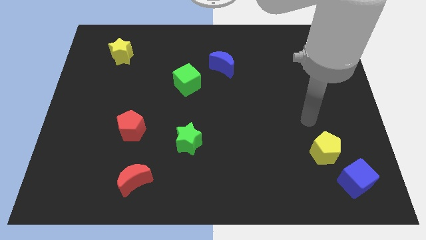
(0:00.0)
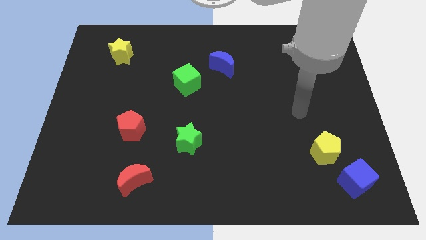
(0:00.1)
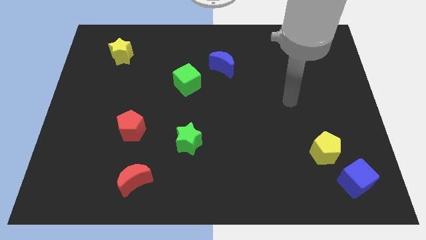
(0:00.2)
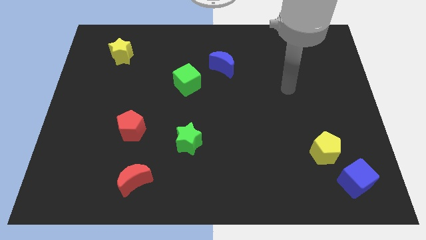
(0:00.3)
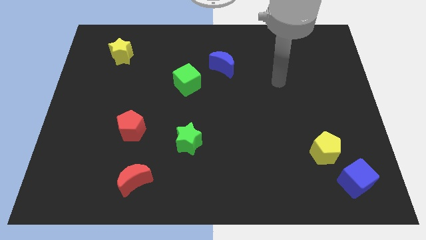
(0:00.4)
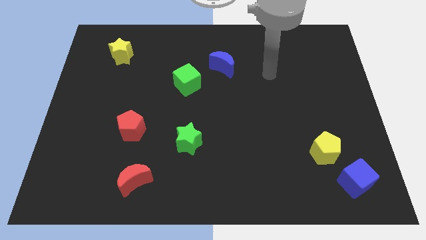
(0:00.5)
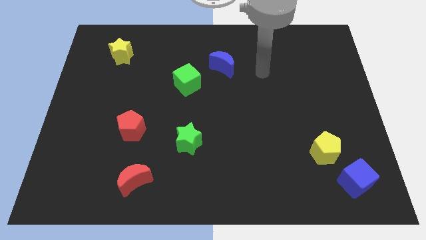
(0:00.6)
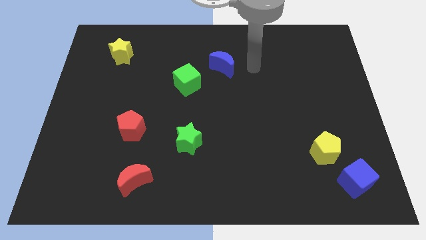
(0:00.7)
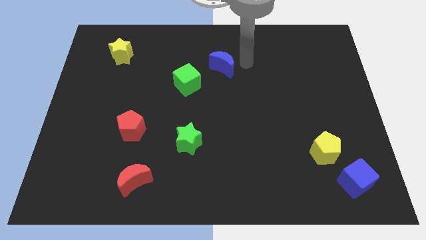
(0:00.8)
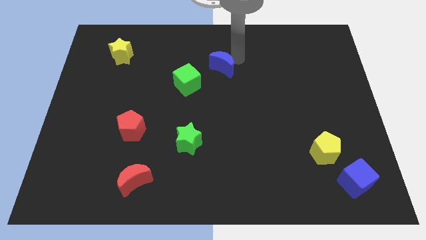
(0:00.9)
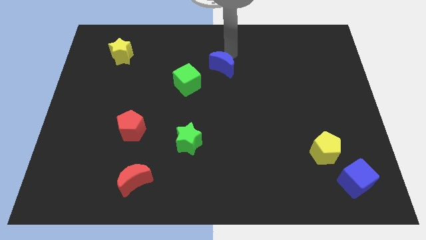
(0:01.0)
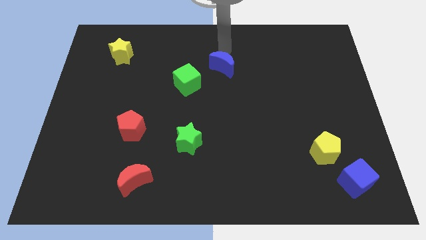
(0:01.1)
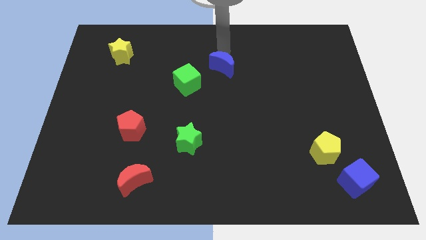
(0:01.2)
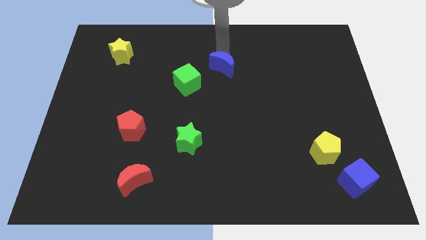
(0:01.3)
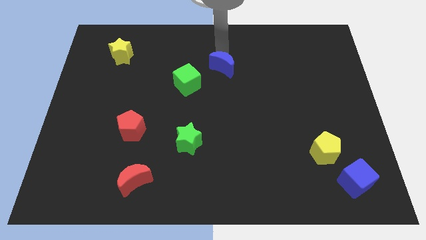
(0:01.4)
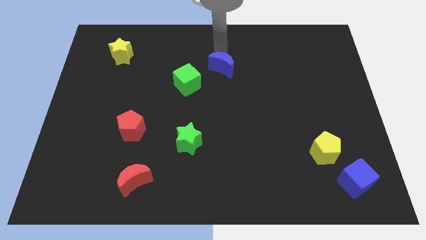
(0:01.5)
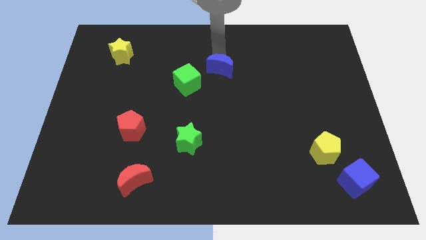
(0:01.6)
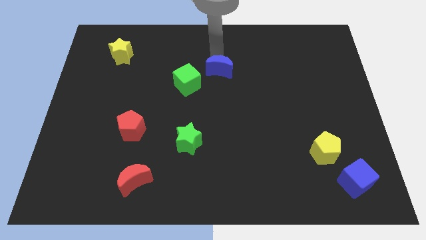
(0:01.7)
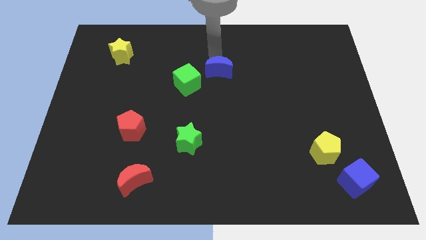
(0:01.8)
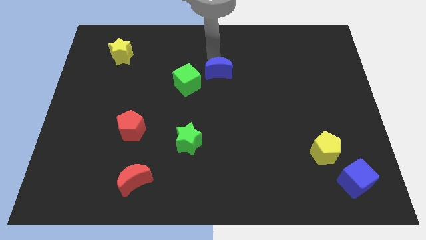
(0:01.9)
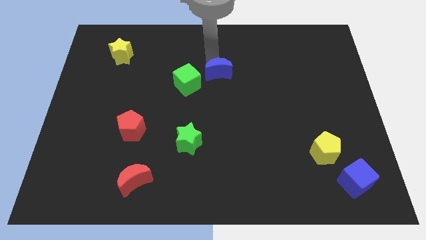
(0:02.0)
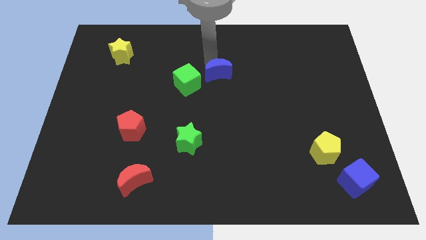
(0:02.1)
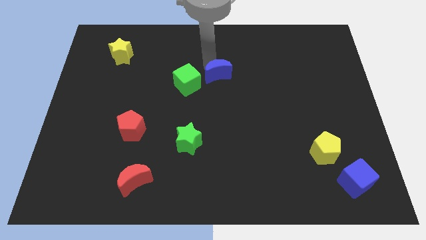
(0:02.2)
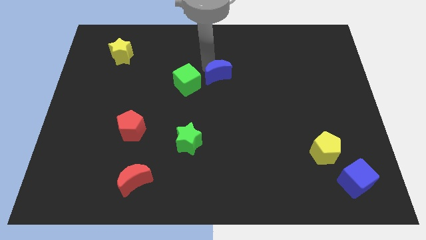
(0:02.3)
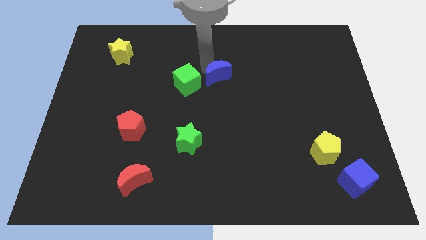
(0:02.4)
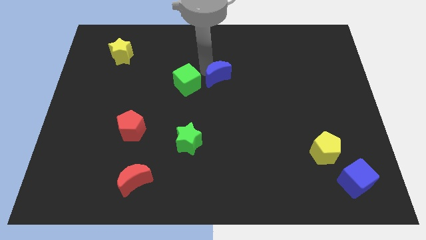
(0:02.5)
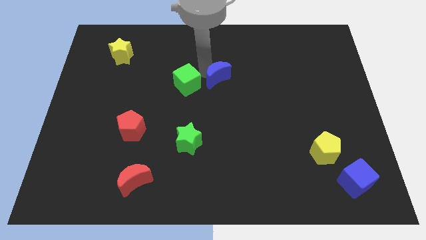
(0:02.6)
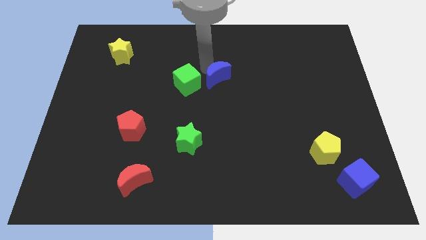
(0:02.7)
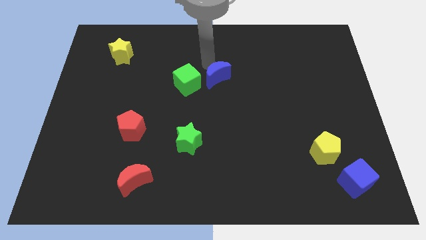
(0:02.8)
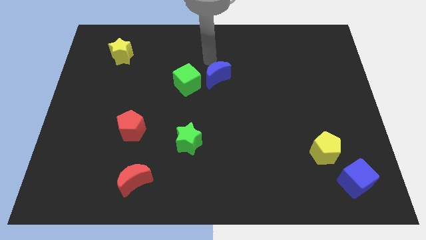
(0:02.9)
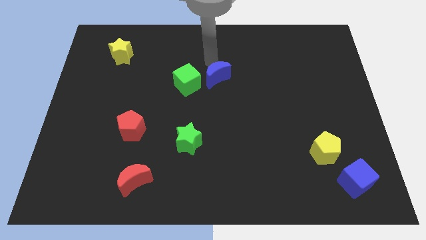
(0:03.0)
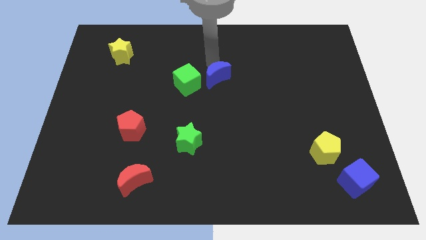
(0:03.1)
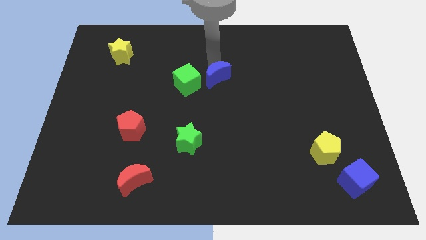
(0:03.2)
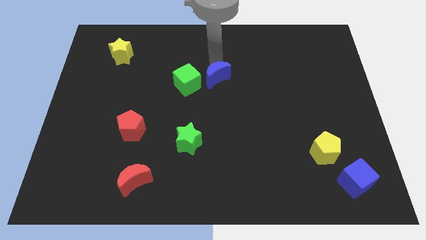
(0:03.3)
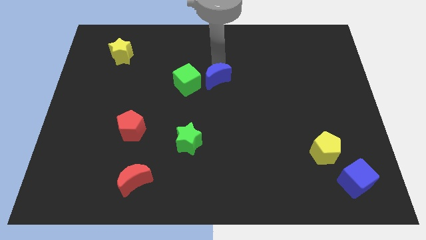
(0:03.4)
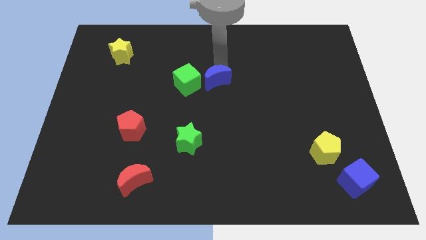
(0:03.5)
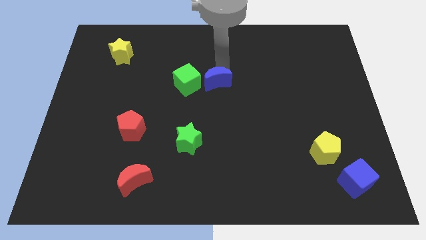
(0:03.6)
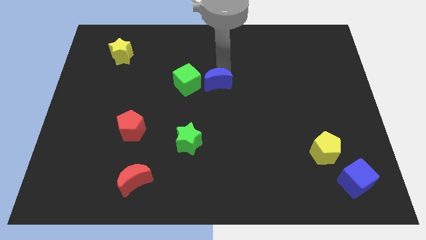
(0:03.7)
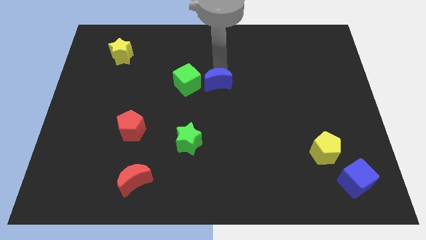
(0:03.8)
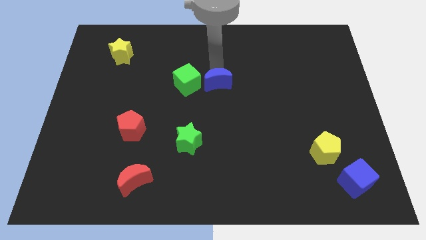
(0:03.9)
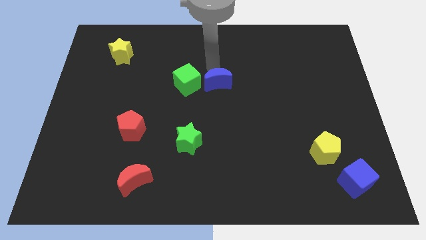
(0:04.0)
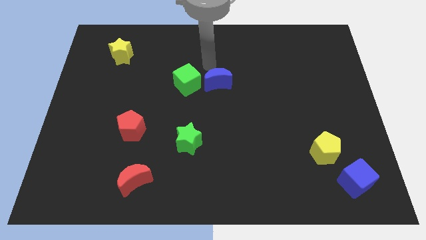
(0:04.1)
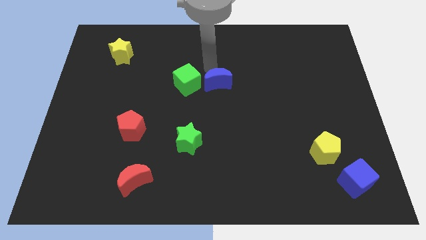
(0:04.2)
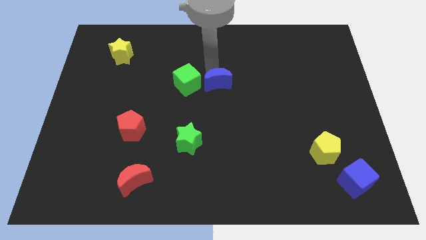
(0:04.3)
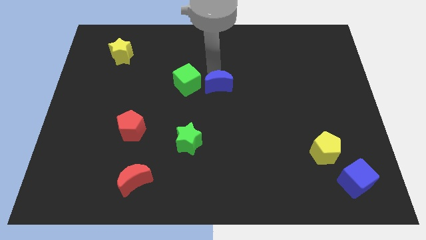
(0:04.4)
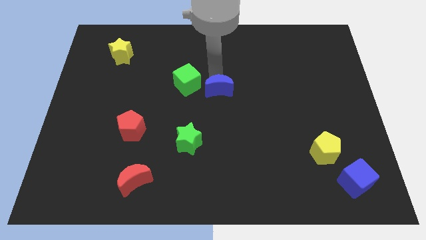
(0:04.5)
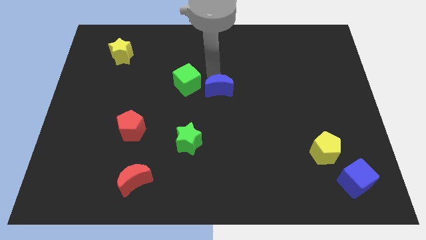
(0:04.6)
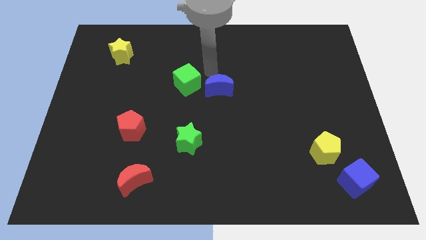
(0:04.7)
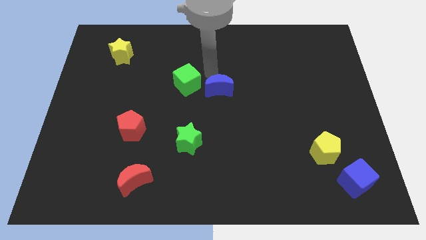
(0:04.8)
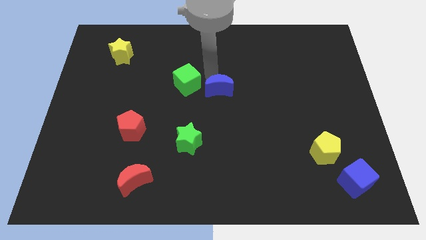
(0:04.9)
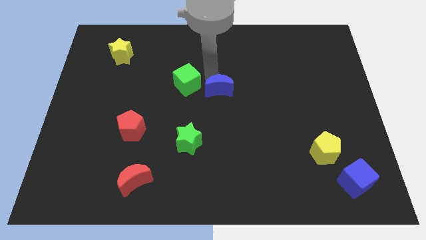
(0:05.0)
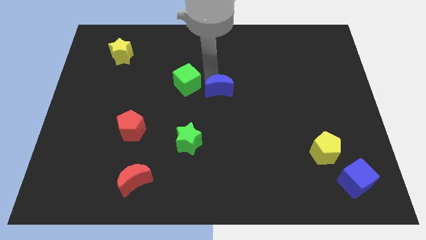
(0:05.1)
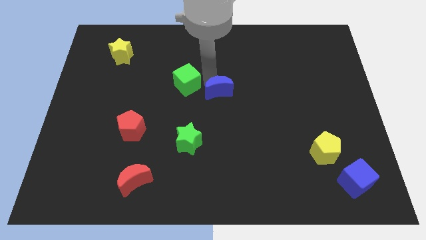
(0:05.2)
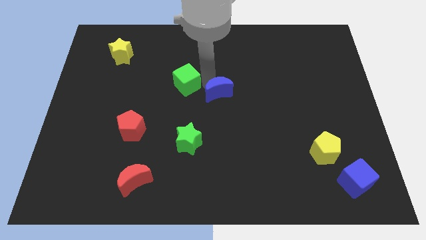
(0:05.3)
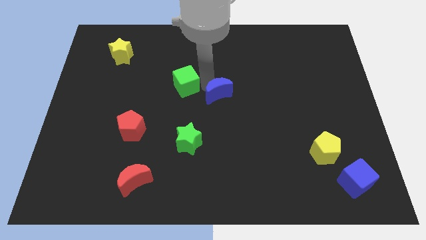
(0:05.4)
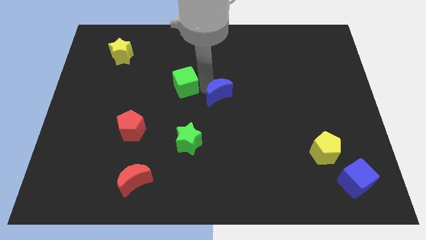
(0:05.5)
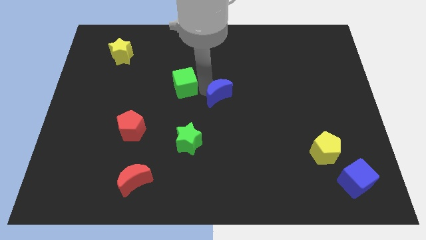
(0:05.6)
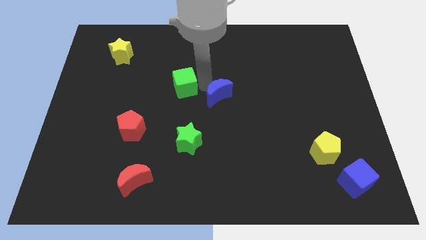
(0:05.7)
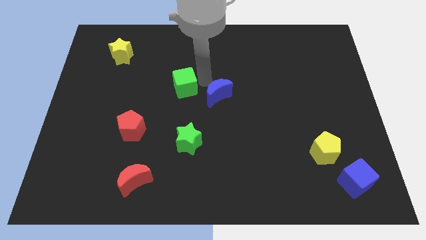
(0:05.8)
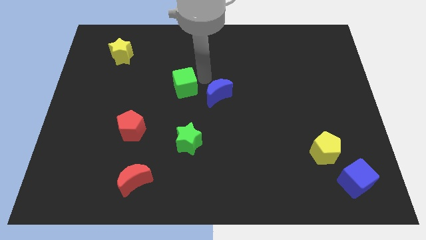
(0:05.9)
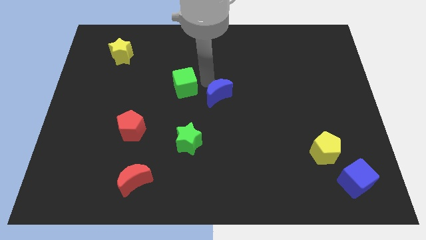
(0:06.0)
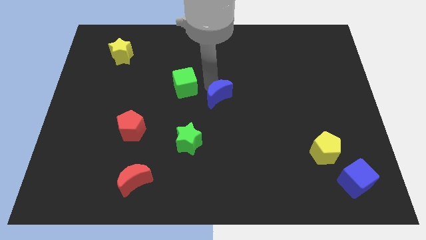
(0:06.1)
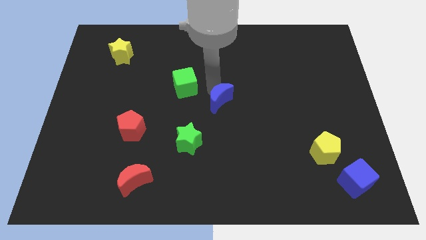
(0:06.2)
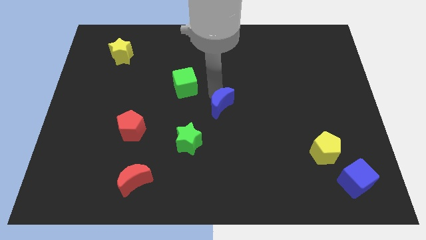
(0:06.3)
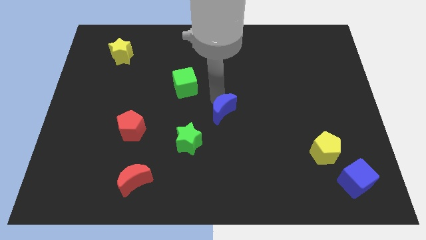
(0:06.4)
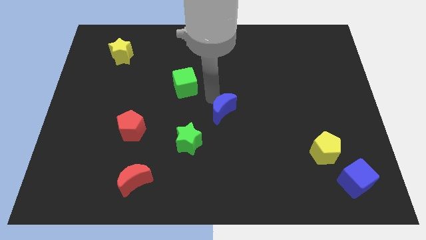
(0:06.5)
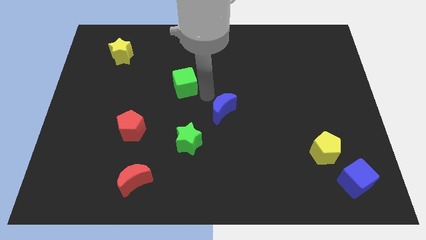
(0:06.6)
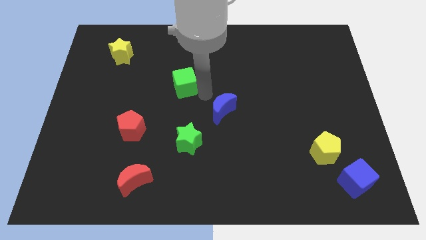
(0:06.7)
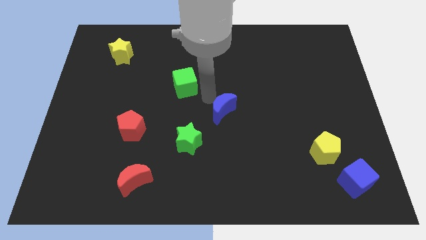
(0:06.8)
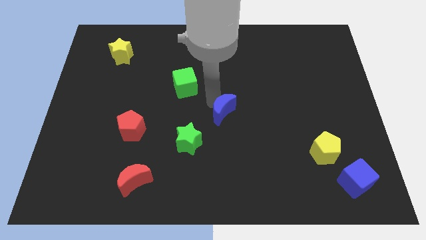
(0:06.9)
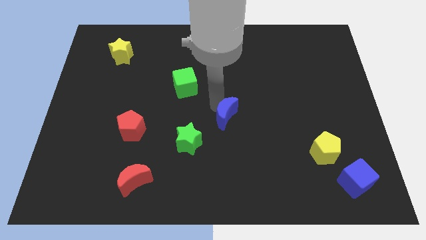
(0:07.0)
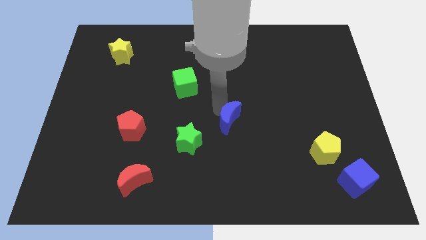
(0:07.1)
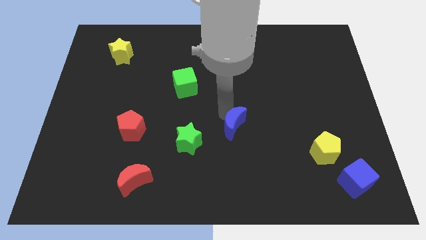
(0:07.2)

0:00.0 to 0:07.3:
move the blue moon just right of the green star

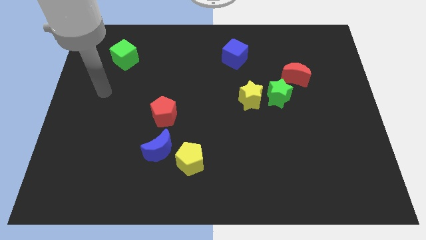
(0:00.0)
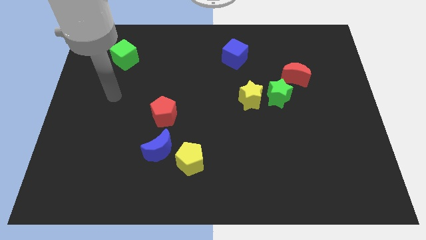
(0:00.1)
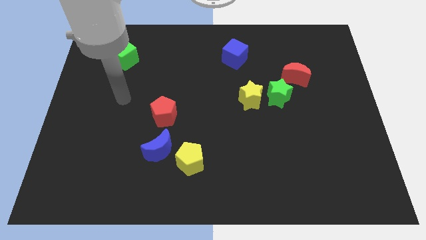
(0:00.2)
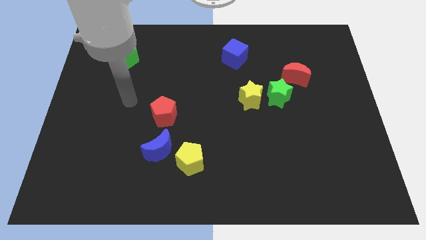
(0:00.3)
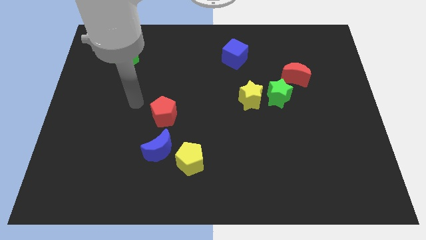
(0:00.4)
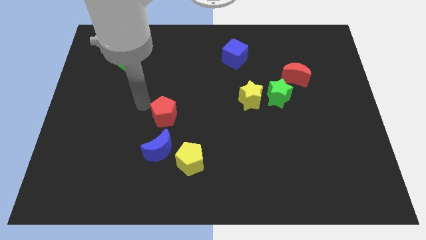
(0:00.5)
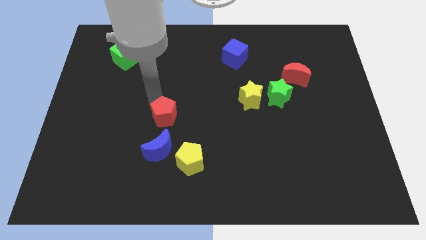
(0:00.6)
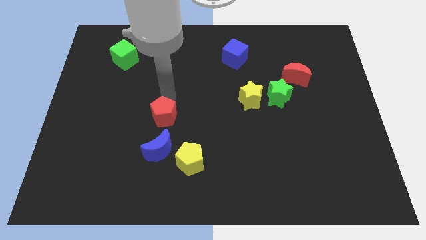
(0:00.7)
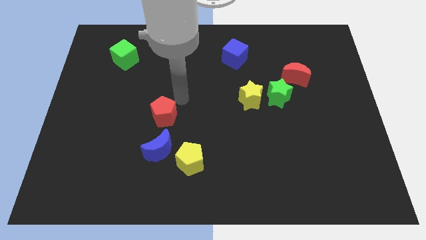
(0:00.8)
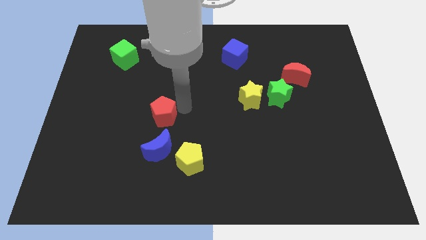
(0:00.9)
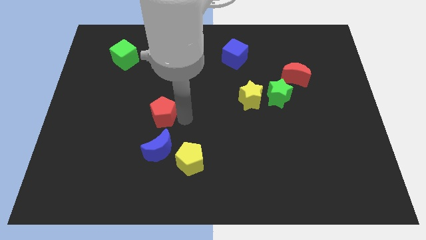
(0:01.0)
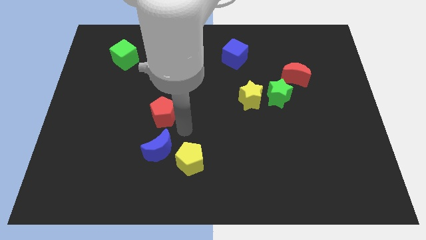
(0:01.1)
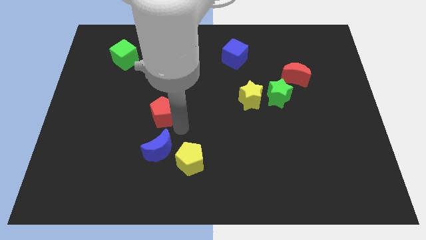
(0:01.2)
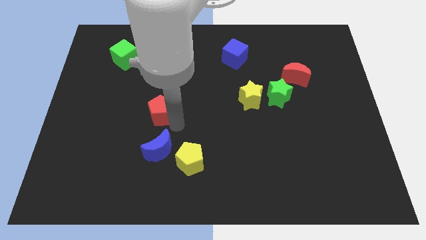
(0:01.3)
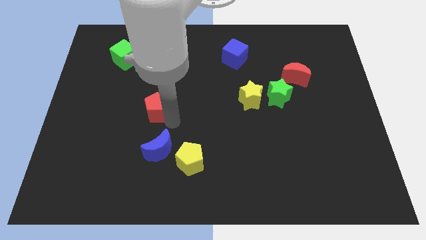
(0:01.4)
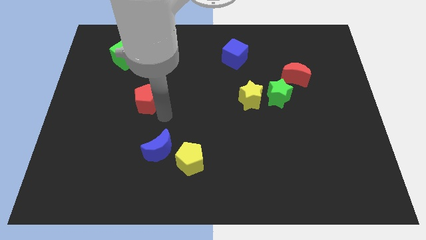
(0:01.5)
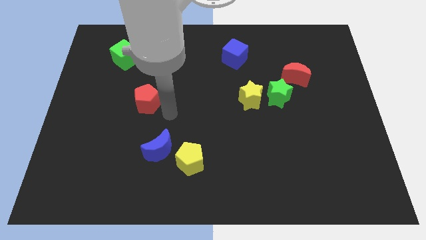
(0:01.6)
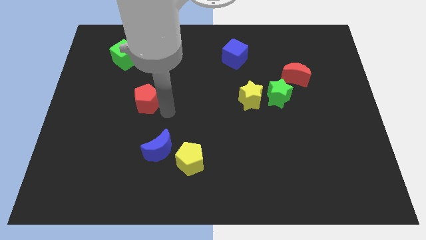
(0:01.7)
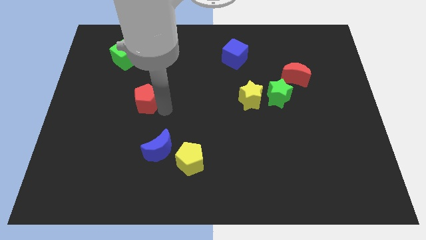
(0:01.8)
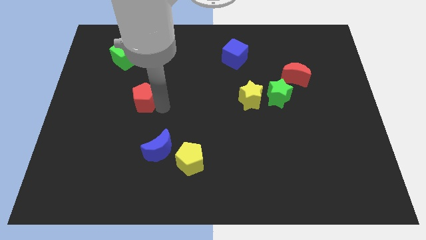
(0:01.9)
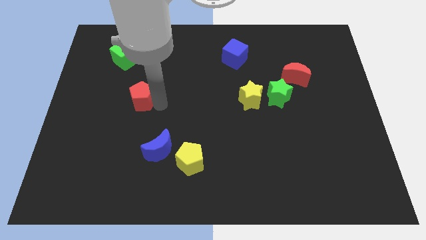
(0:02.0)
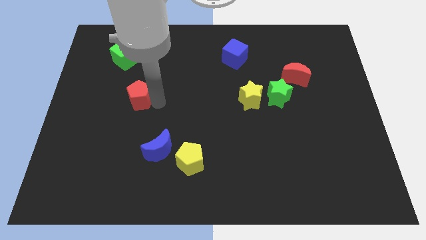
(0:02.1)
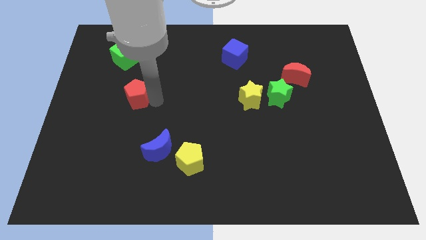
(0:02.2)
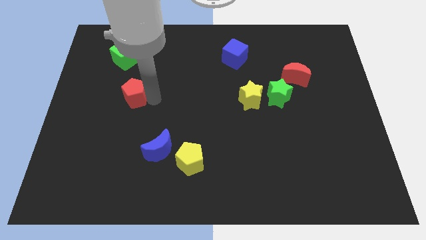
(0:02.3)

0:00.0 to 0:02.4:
put the red pentagon to the bottom of the green cube
